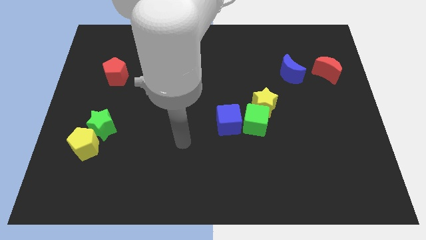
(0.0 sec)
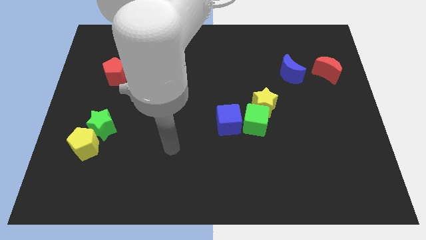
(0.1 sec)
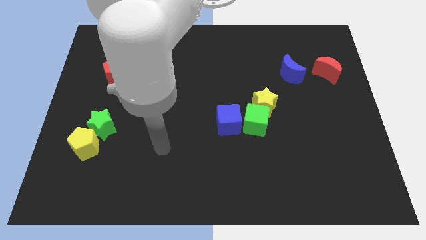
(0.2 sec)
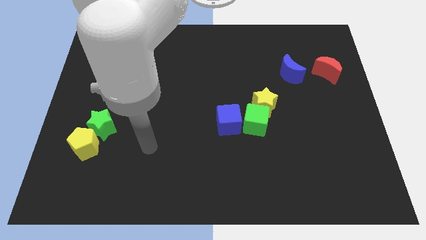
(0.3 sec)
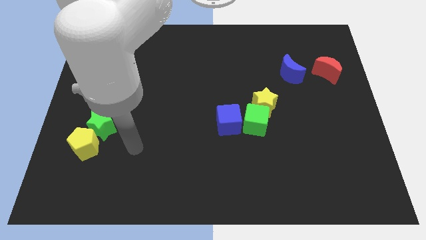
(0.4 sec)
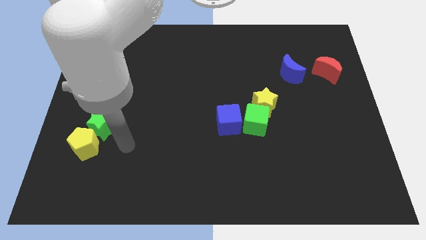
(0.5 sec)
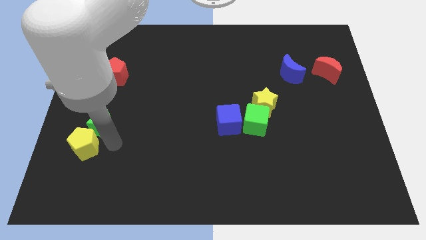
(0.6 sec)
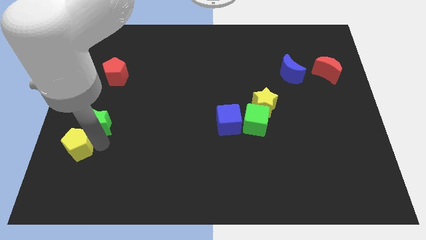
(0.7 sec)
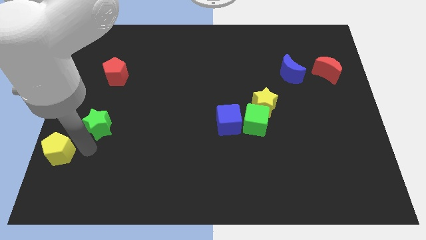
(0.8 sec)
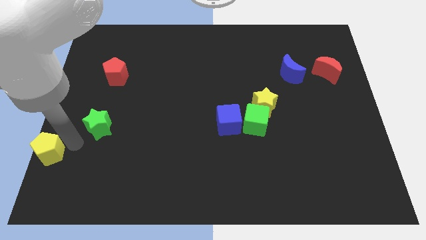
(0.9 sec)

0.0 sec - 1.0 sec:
separate the green star from the yellow pentagon

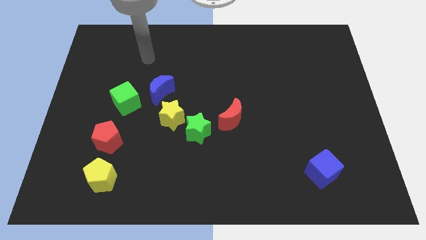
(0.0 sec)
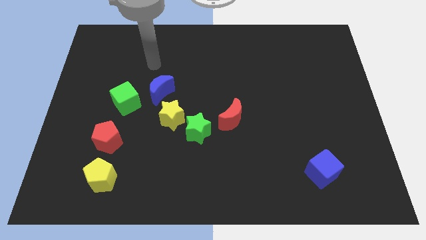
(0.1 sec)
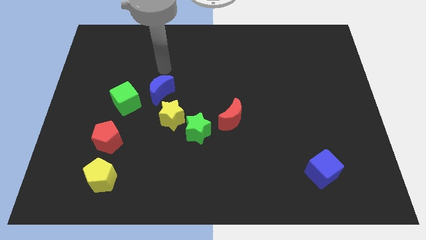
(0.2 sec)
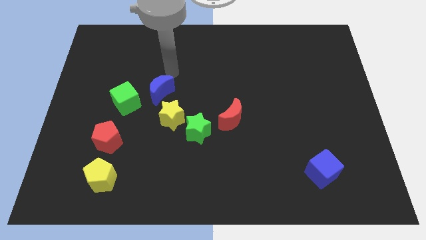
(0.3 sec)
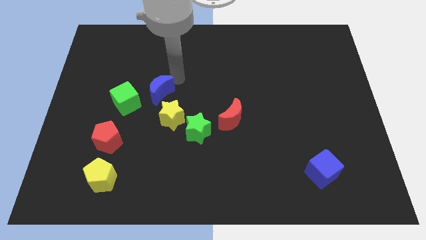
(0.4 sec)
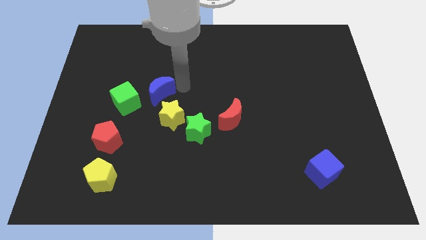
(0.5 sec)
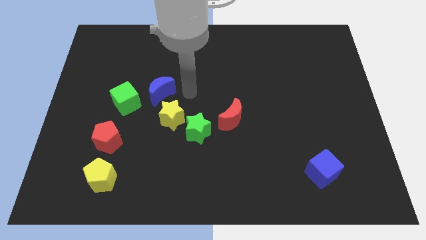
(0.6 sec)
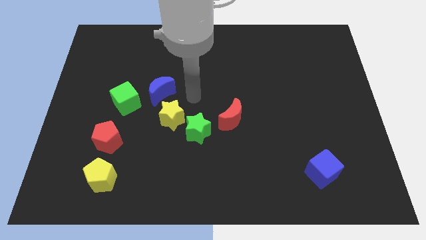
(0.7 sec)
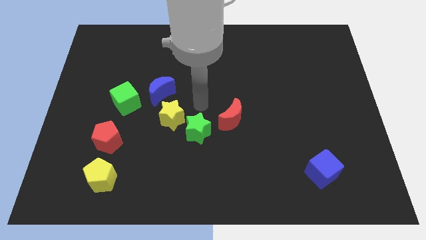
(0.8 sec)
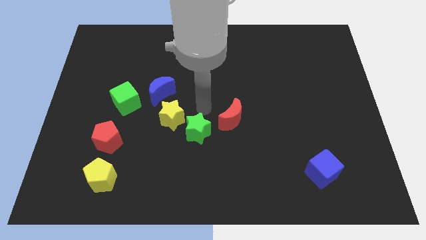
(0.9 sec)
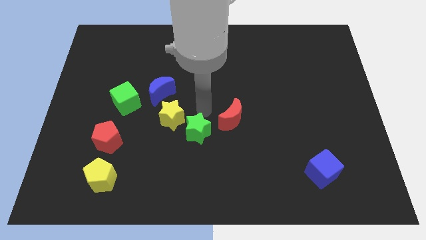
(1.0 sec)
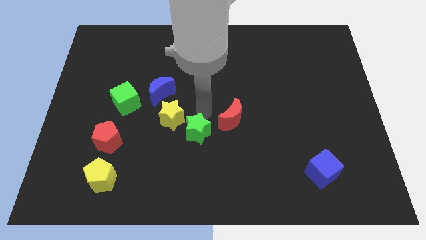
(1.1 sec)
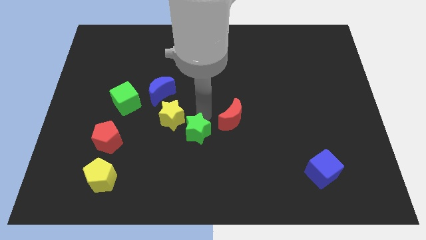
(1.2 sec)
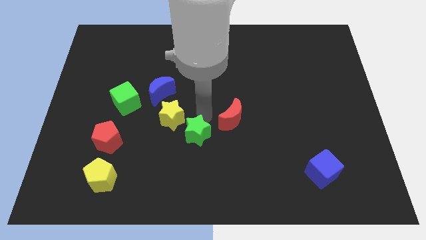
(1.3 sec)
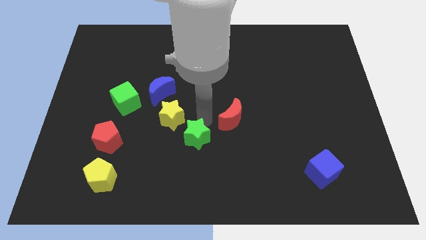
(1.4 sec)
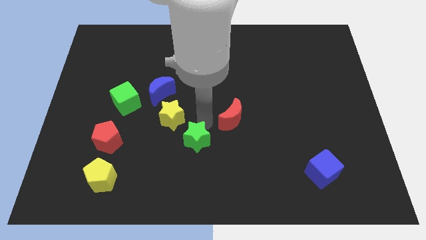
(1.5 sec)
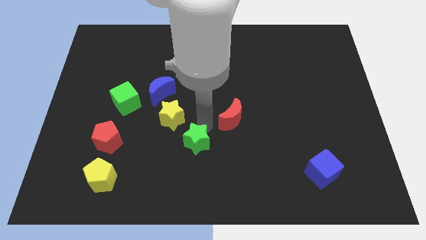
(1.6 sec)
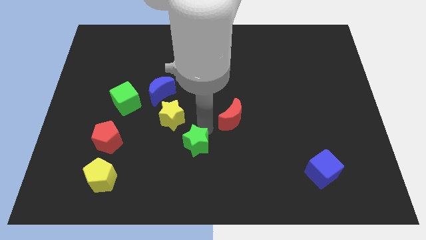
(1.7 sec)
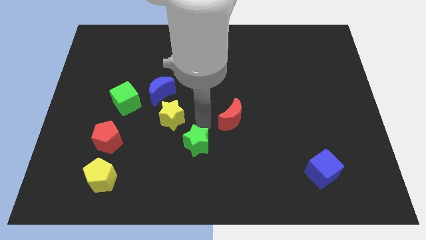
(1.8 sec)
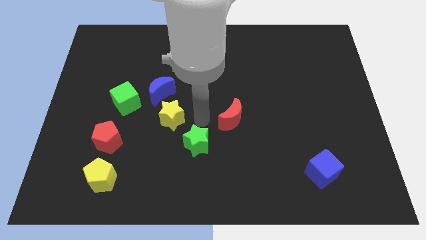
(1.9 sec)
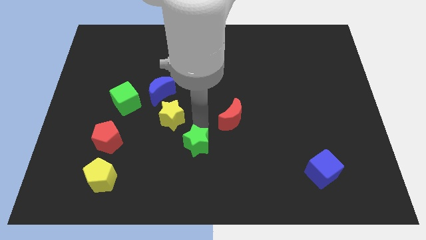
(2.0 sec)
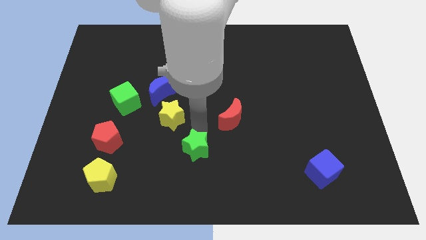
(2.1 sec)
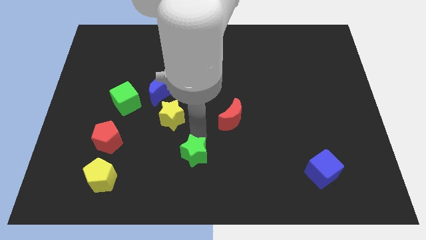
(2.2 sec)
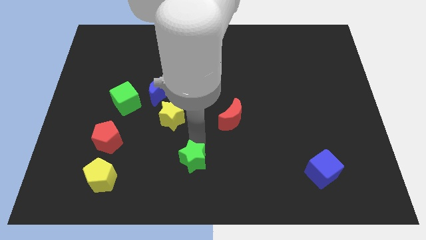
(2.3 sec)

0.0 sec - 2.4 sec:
pull the green star apart from the yellow star and red moon

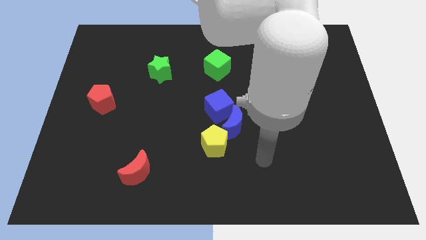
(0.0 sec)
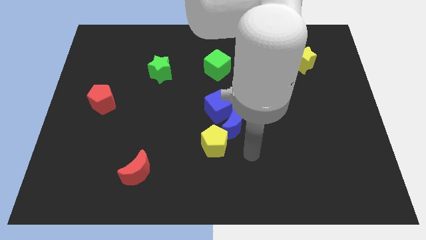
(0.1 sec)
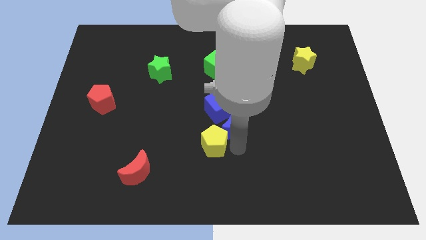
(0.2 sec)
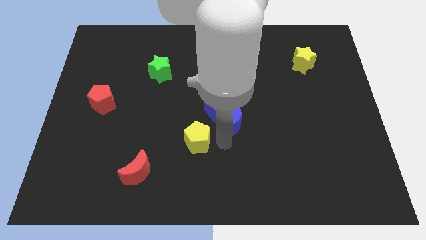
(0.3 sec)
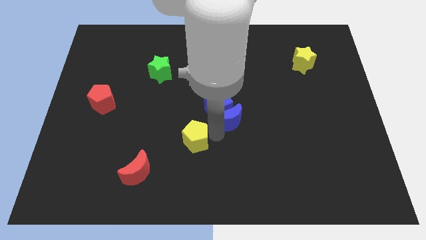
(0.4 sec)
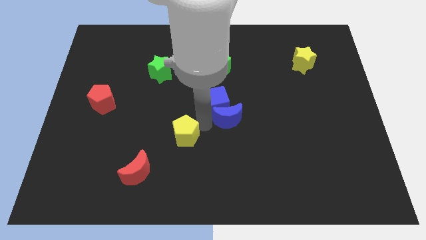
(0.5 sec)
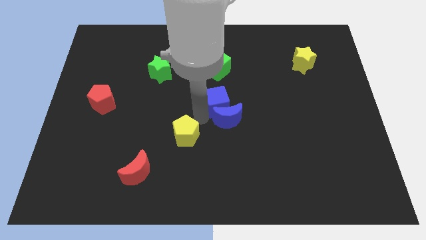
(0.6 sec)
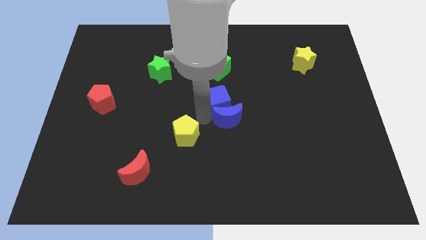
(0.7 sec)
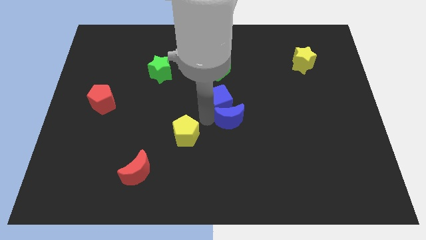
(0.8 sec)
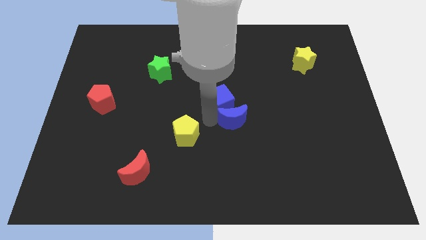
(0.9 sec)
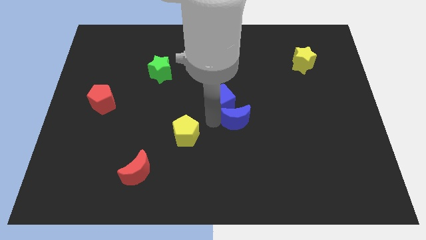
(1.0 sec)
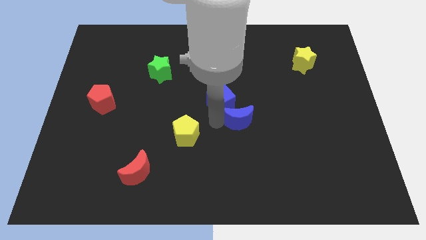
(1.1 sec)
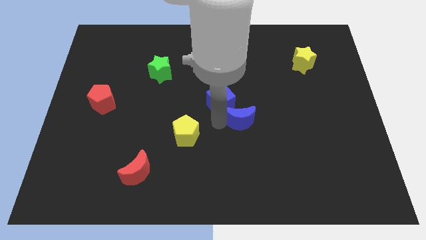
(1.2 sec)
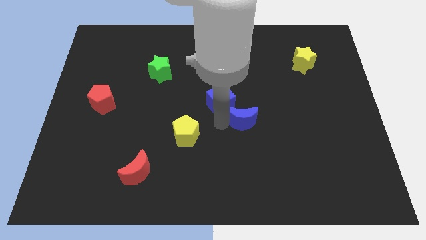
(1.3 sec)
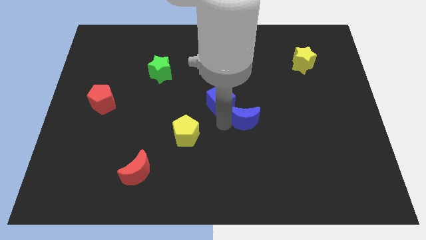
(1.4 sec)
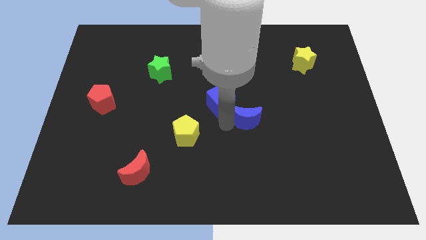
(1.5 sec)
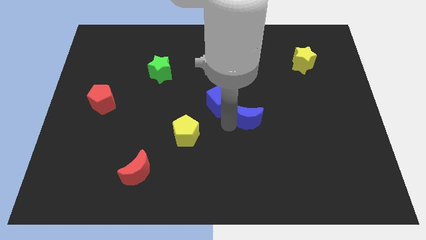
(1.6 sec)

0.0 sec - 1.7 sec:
move the blue moon away from the blue cube and yellow pentagon

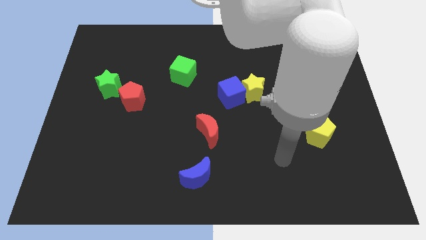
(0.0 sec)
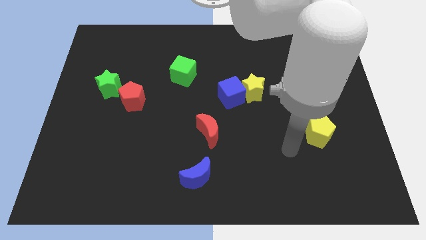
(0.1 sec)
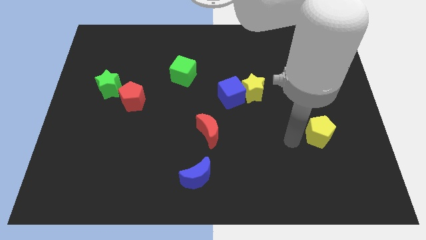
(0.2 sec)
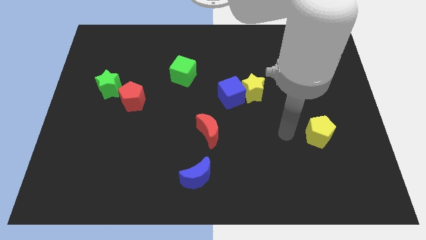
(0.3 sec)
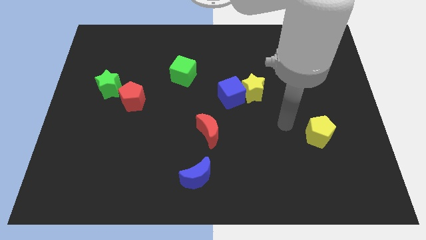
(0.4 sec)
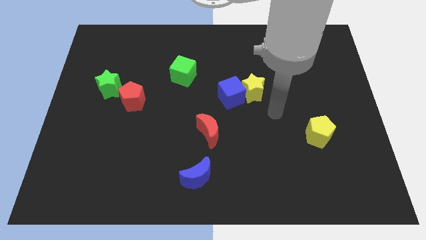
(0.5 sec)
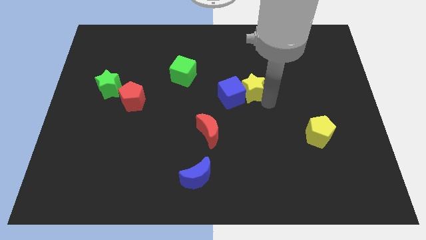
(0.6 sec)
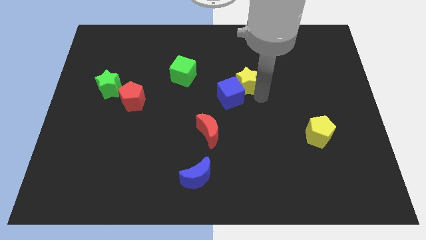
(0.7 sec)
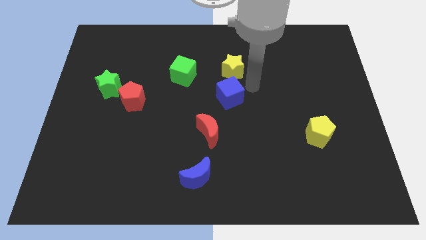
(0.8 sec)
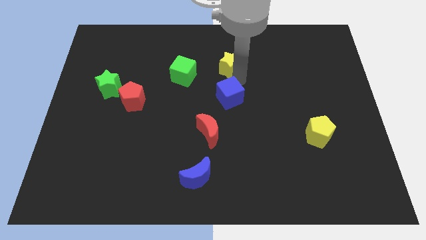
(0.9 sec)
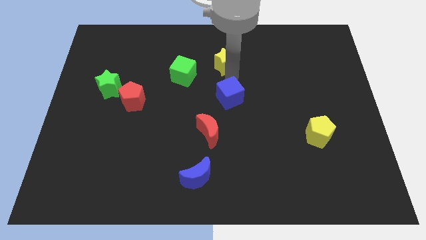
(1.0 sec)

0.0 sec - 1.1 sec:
separate the blue cube from the yellow star

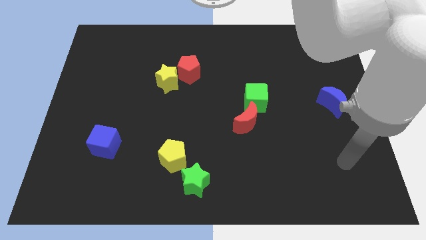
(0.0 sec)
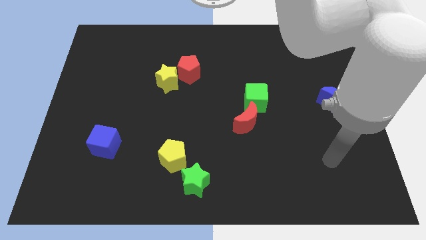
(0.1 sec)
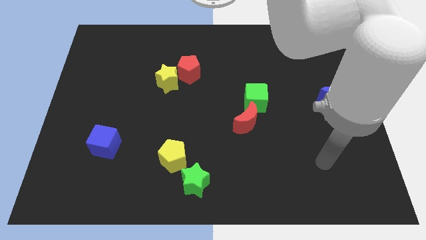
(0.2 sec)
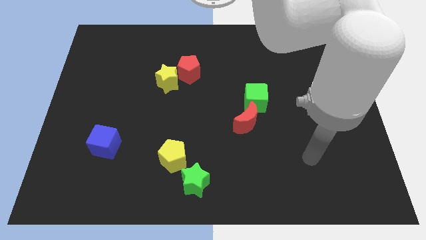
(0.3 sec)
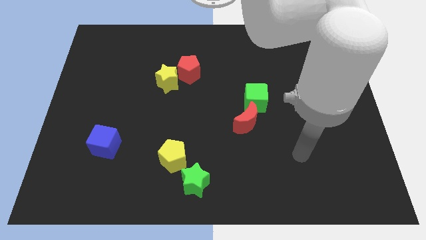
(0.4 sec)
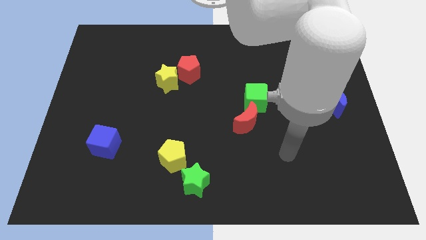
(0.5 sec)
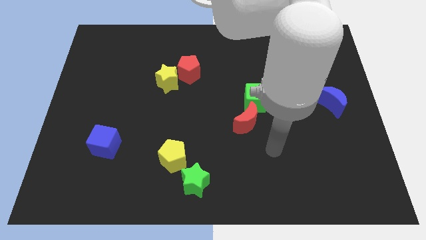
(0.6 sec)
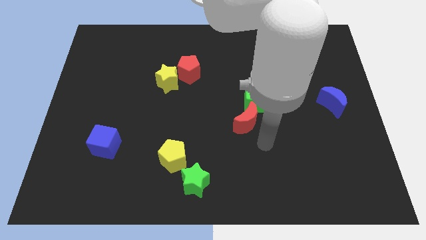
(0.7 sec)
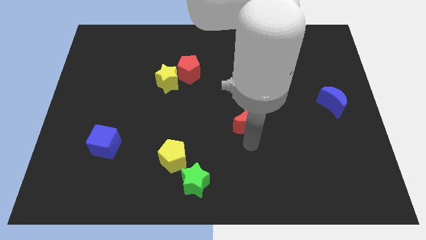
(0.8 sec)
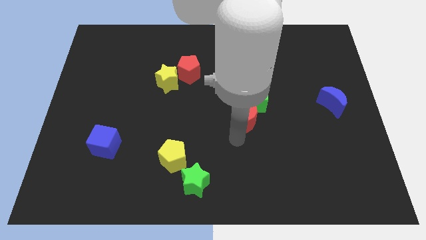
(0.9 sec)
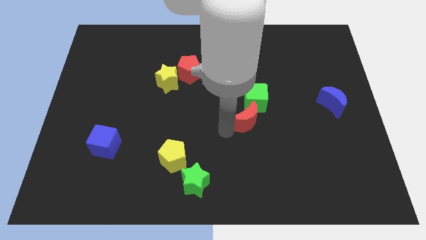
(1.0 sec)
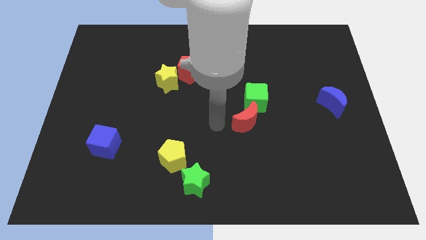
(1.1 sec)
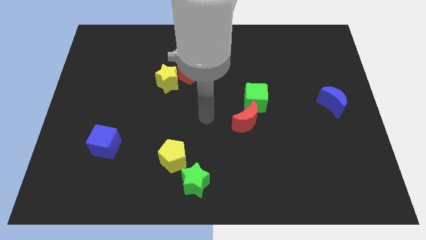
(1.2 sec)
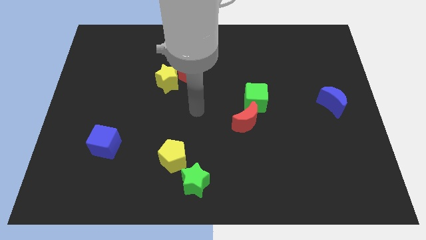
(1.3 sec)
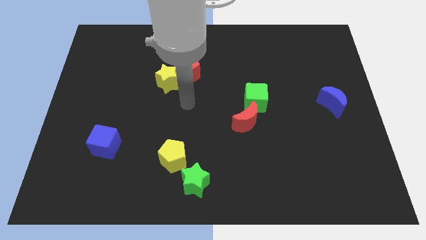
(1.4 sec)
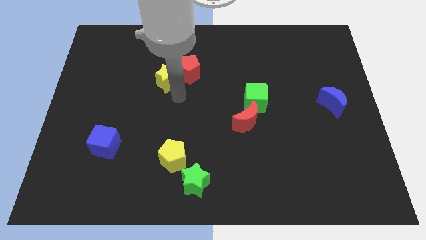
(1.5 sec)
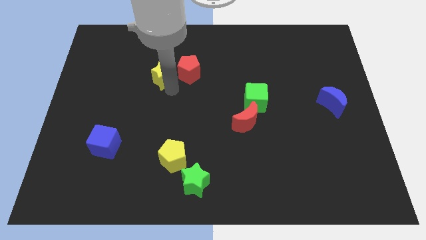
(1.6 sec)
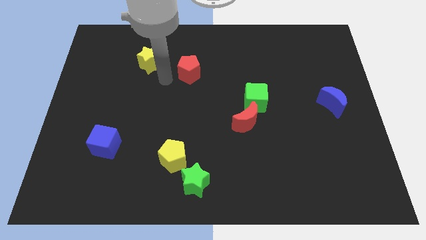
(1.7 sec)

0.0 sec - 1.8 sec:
separate the red pentagon from the yellow star

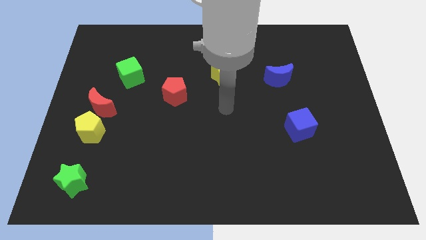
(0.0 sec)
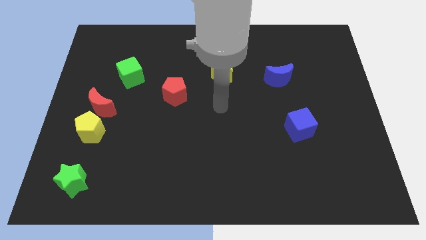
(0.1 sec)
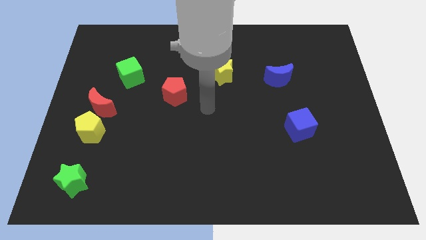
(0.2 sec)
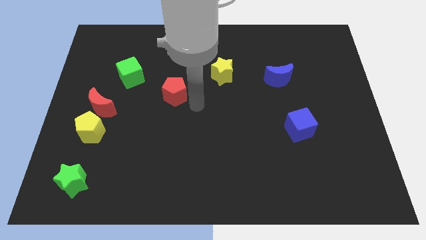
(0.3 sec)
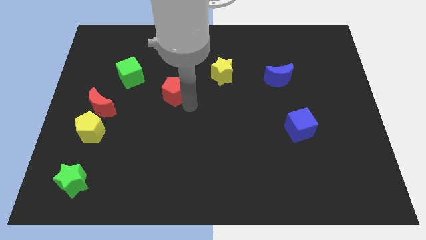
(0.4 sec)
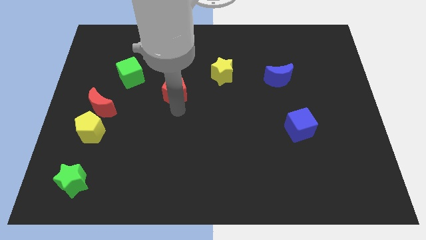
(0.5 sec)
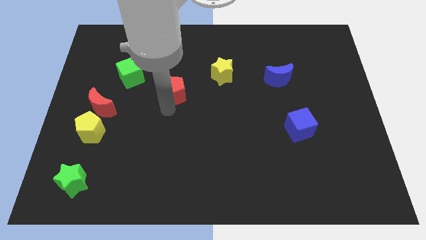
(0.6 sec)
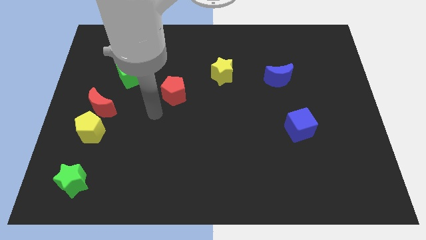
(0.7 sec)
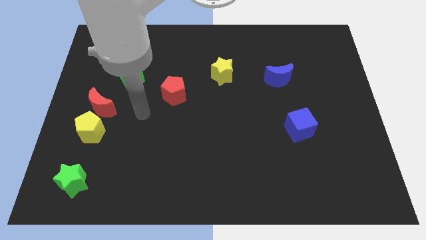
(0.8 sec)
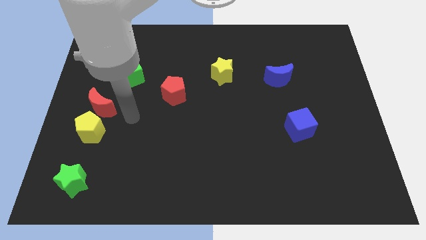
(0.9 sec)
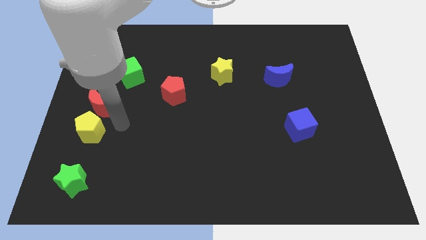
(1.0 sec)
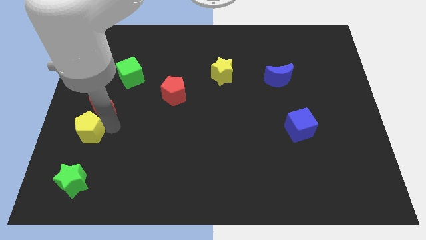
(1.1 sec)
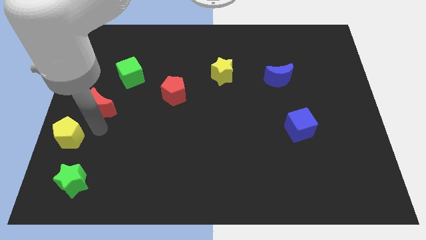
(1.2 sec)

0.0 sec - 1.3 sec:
pull the red moon apart from the yellow pentagon
